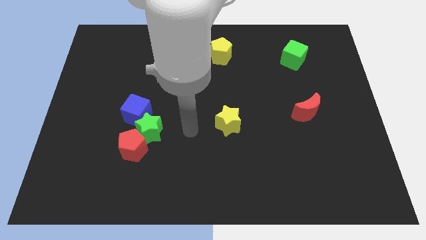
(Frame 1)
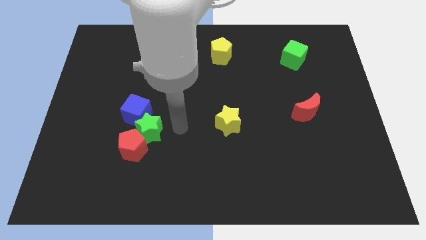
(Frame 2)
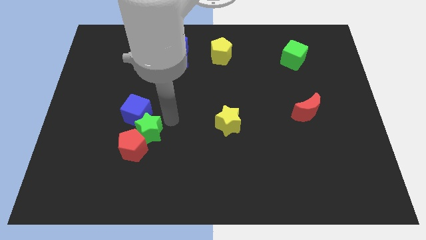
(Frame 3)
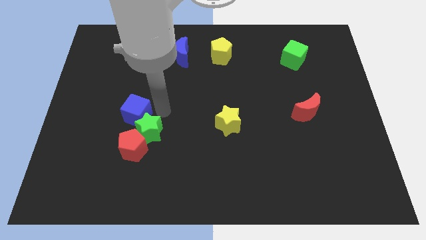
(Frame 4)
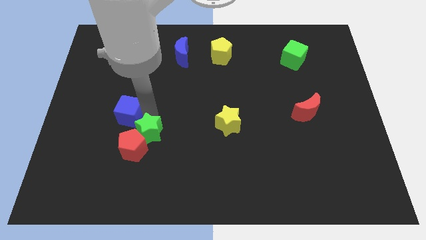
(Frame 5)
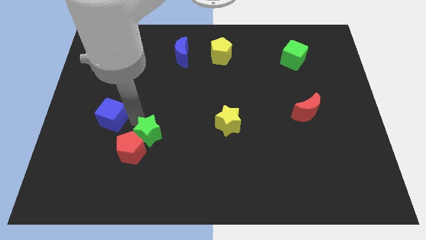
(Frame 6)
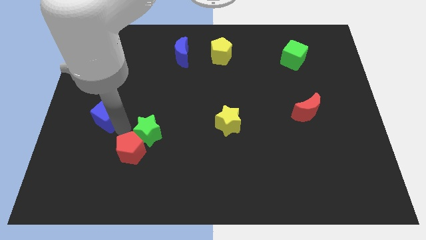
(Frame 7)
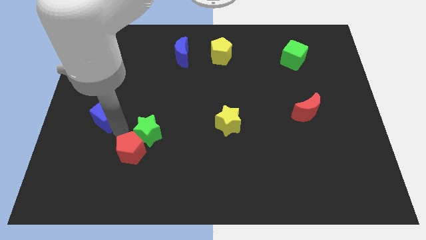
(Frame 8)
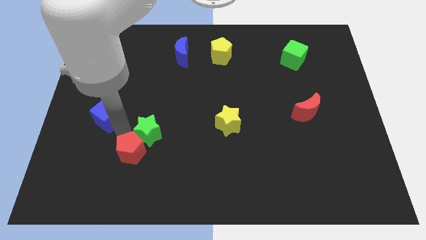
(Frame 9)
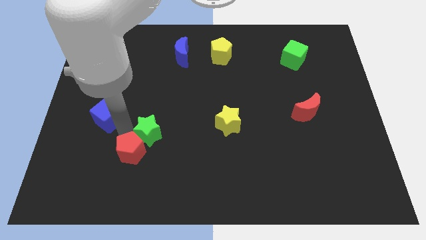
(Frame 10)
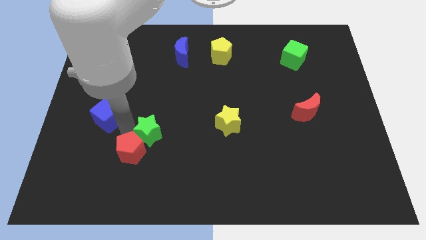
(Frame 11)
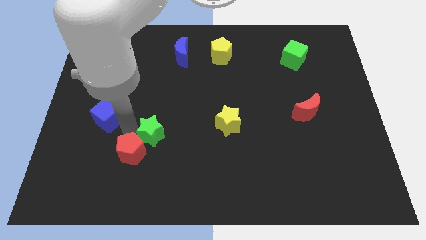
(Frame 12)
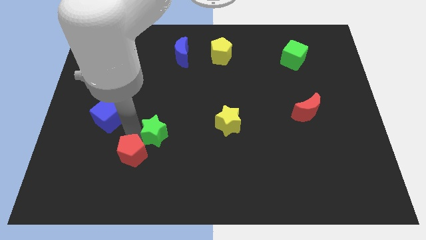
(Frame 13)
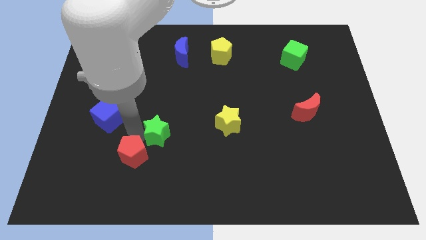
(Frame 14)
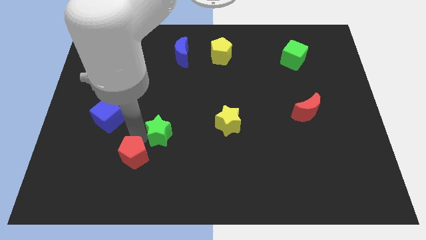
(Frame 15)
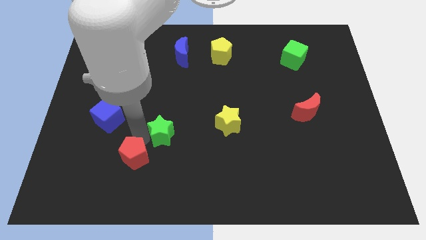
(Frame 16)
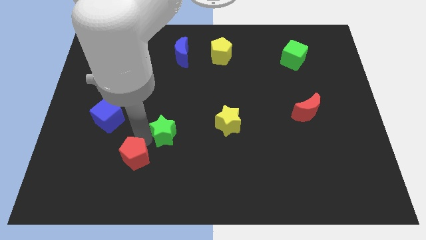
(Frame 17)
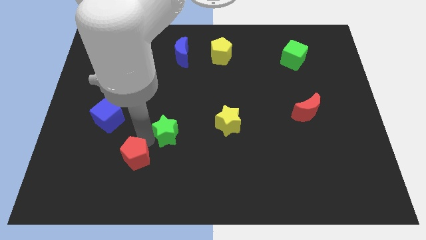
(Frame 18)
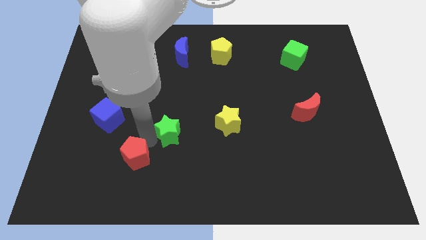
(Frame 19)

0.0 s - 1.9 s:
pull the green star apart from the blue cube and red pentagon

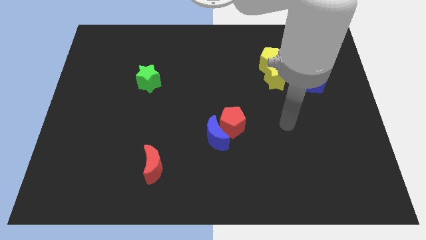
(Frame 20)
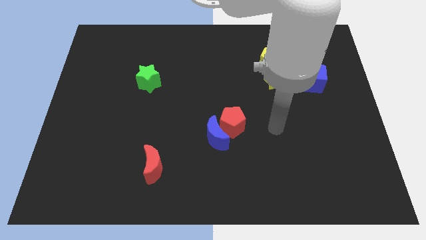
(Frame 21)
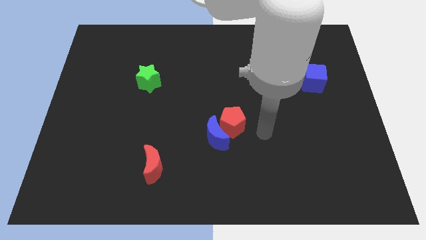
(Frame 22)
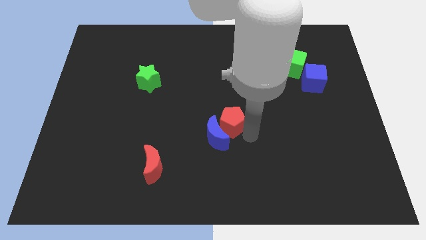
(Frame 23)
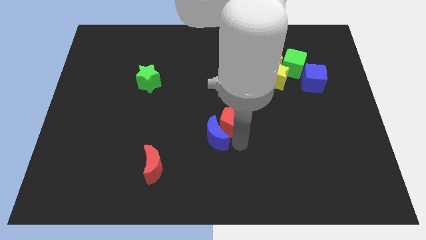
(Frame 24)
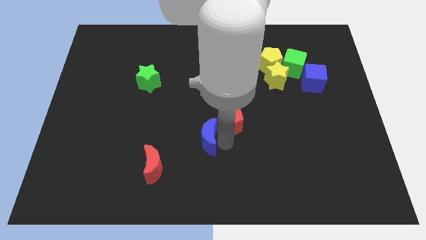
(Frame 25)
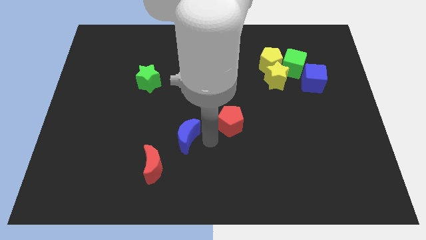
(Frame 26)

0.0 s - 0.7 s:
separate the red pentagon from the blue moon

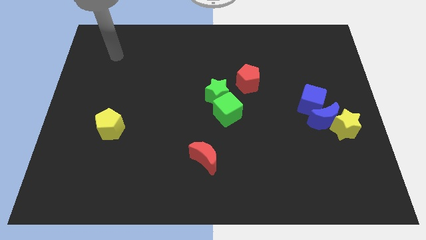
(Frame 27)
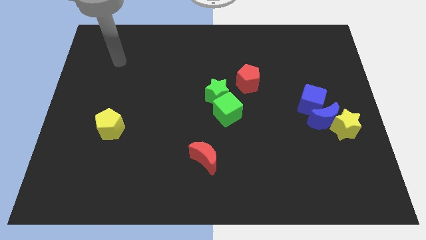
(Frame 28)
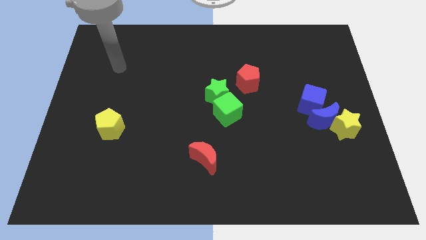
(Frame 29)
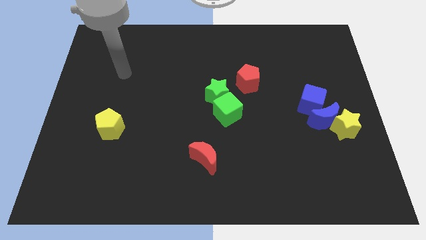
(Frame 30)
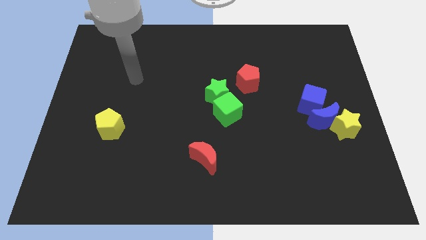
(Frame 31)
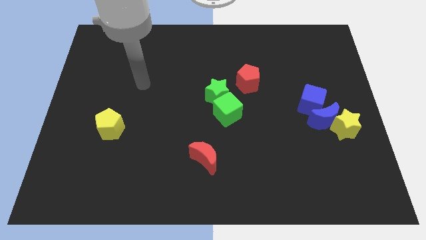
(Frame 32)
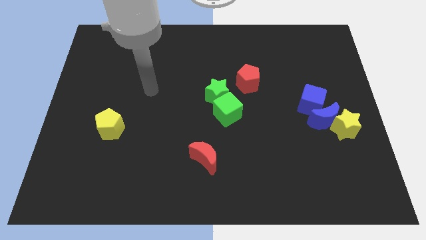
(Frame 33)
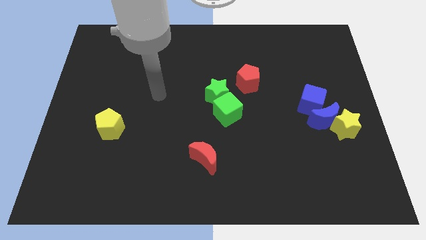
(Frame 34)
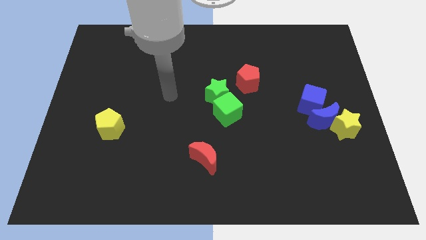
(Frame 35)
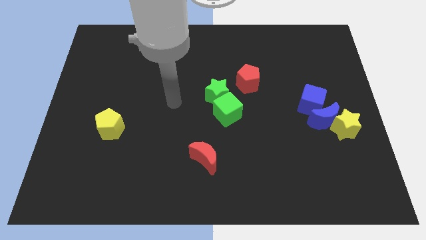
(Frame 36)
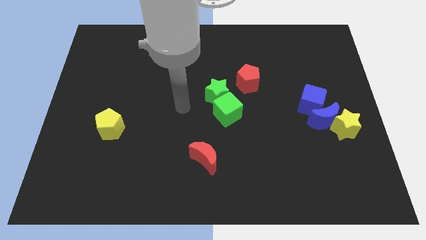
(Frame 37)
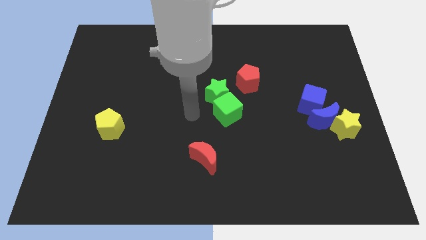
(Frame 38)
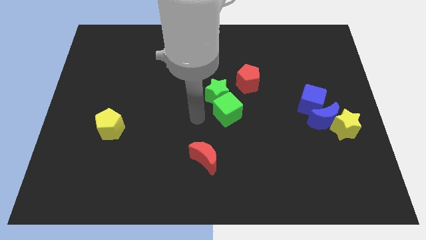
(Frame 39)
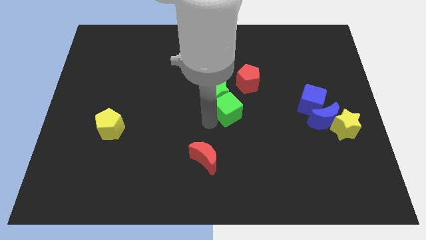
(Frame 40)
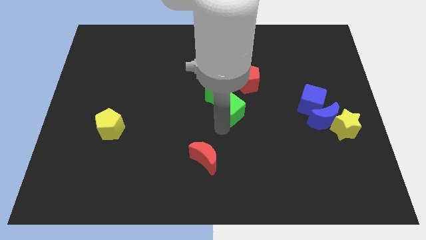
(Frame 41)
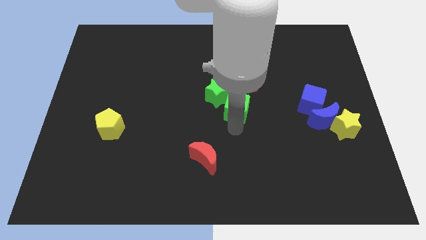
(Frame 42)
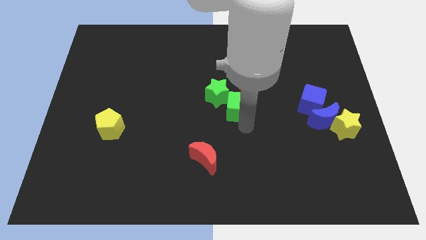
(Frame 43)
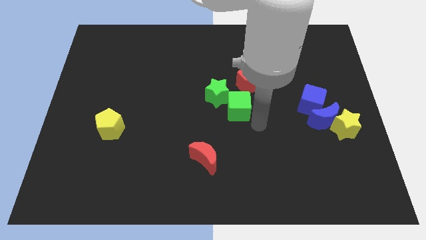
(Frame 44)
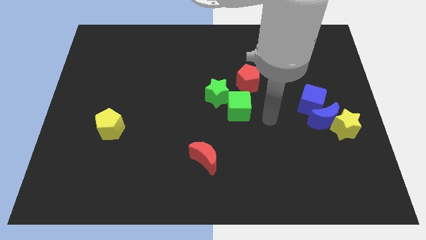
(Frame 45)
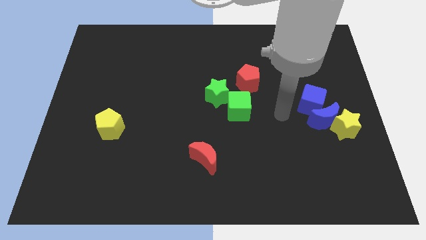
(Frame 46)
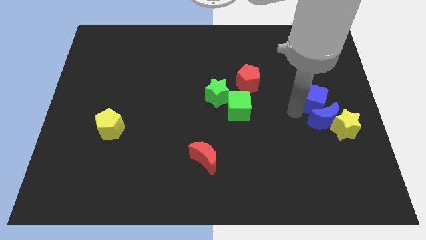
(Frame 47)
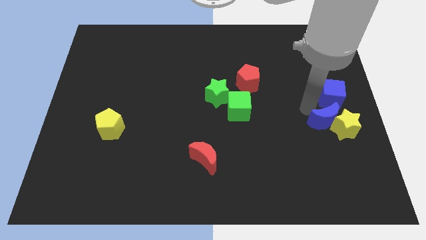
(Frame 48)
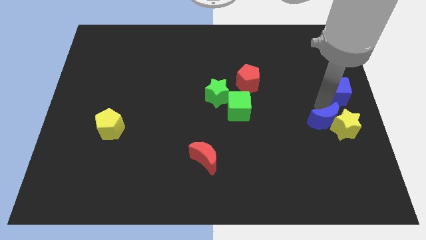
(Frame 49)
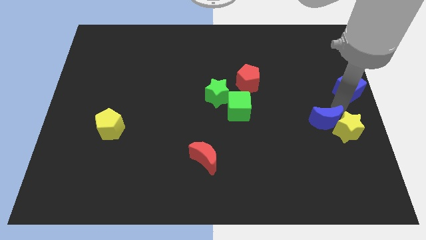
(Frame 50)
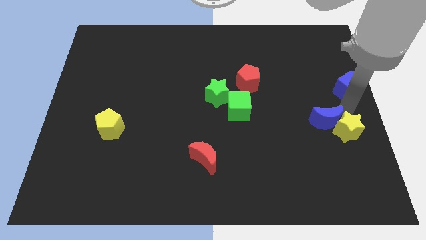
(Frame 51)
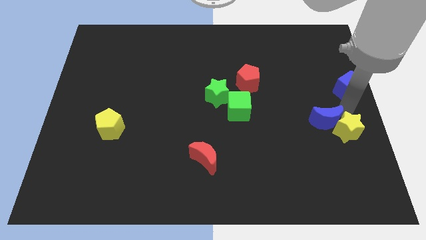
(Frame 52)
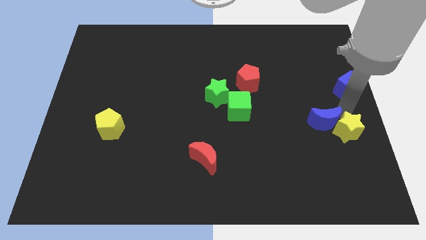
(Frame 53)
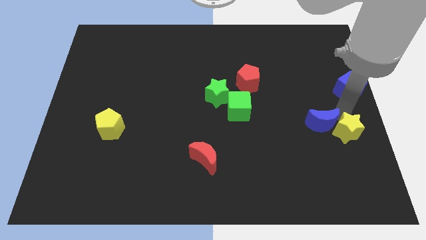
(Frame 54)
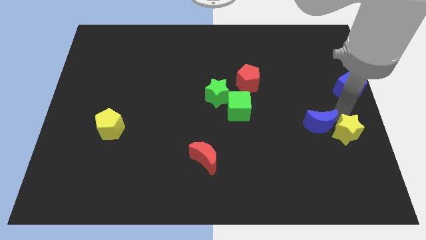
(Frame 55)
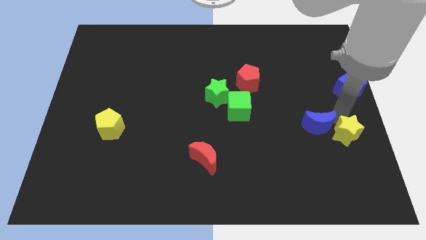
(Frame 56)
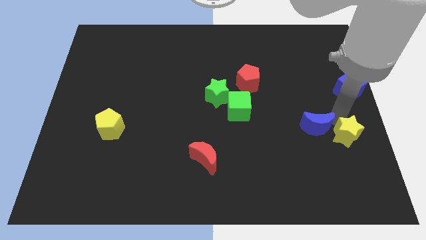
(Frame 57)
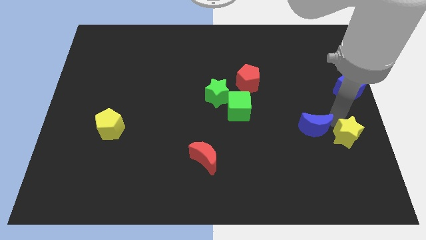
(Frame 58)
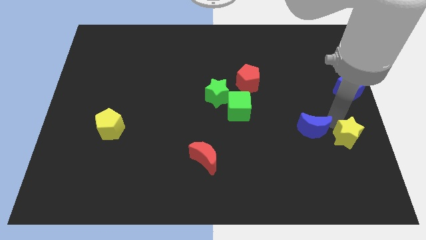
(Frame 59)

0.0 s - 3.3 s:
pull the blue moon apart from the yellow star and blue cube

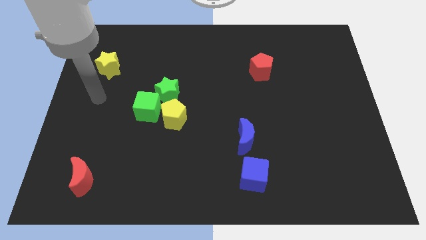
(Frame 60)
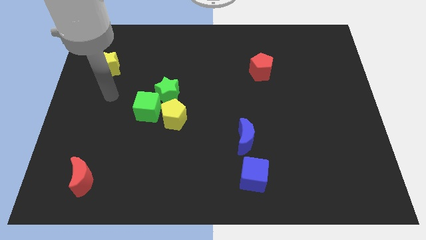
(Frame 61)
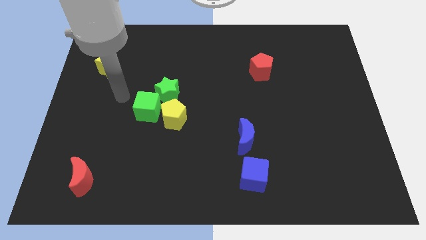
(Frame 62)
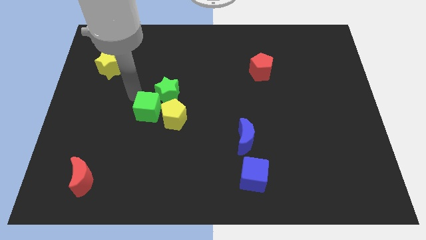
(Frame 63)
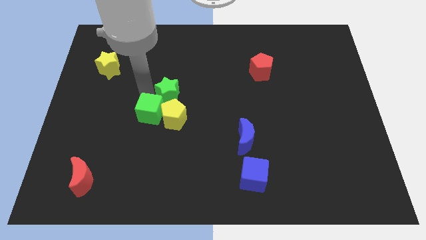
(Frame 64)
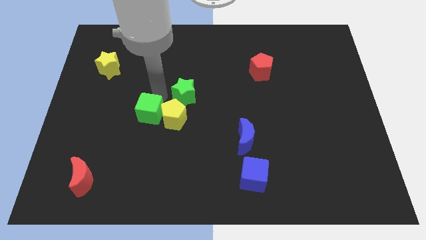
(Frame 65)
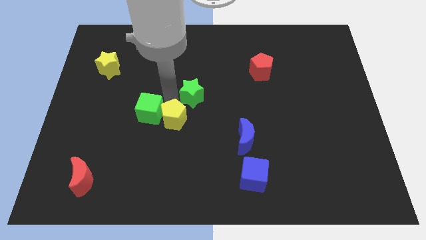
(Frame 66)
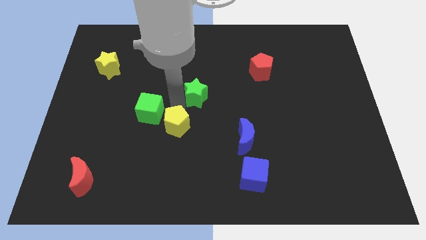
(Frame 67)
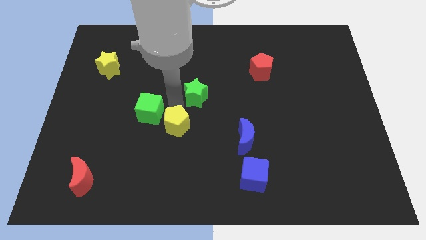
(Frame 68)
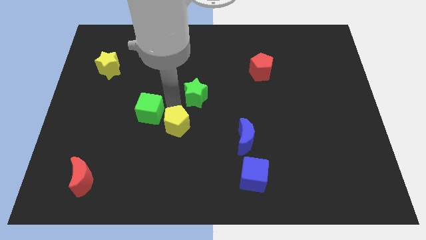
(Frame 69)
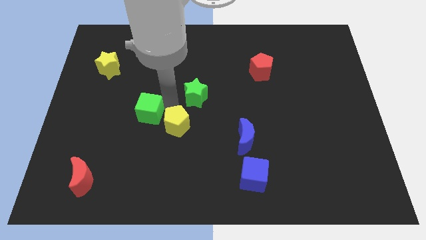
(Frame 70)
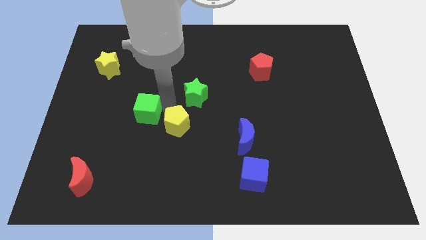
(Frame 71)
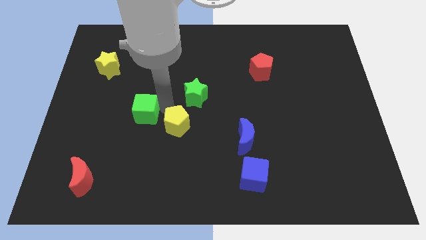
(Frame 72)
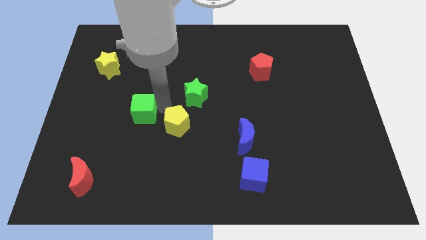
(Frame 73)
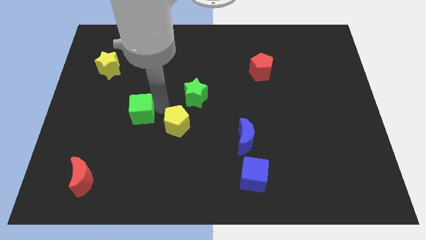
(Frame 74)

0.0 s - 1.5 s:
separate the green cube from the green star and yellow pentagon

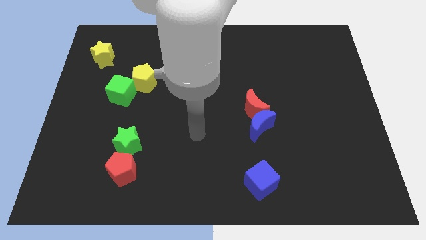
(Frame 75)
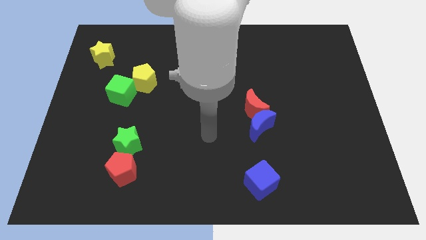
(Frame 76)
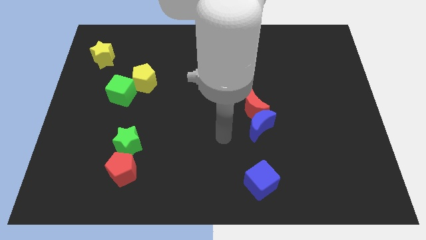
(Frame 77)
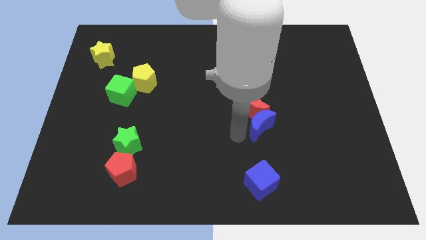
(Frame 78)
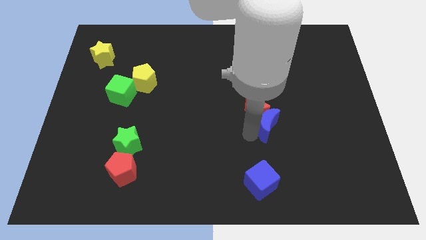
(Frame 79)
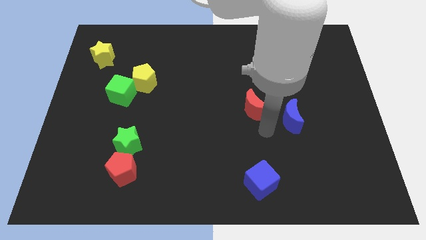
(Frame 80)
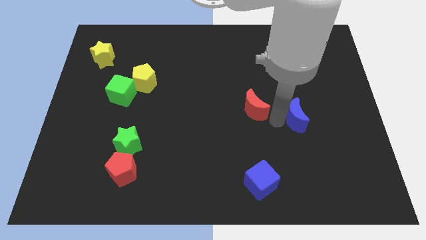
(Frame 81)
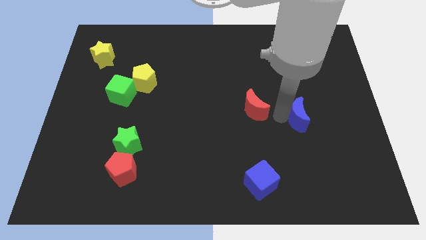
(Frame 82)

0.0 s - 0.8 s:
move the red moon away from the blue moon

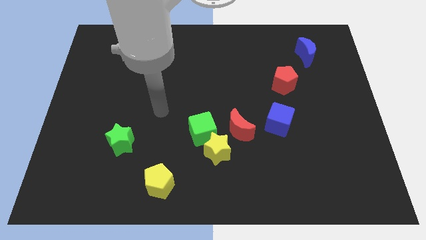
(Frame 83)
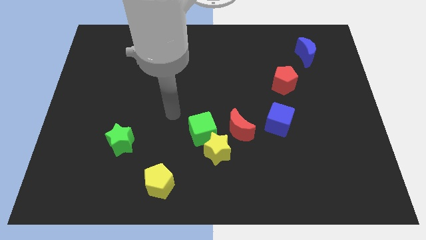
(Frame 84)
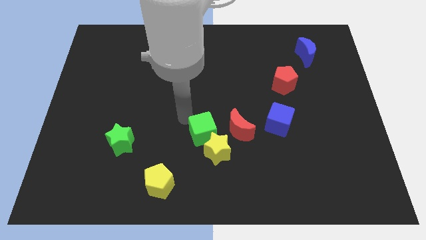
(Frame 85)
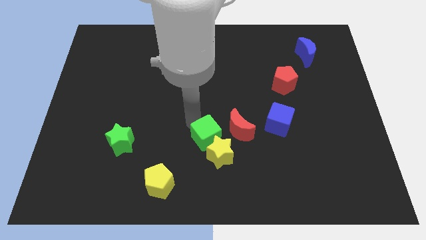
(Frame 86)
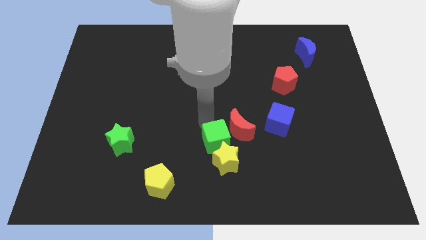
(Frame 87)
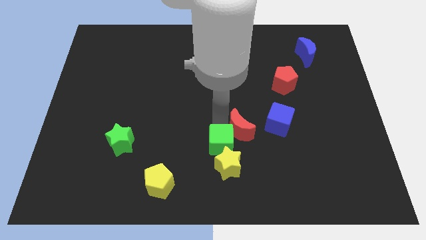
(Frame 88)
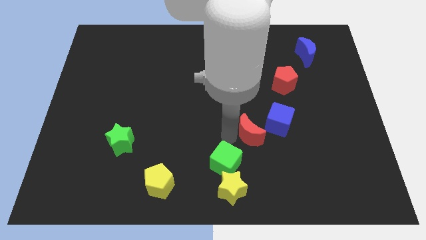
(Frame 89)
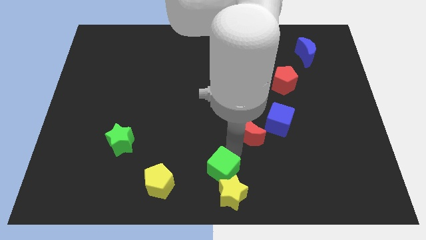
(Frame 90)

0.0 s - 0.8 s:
pull the yellow star apart from the green cube and red moon

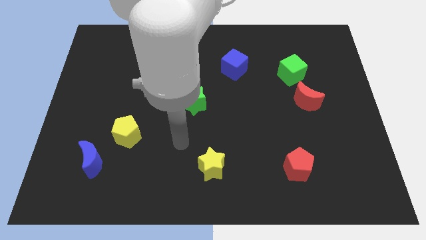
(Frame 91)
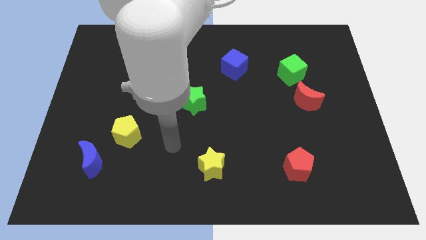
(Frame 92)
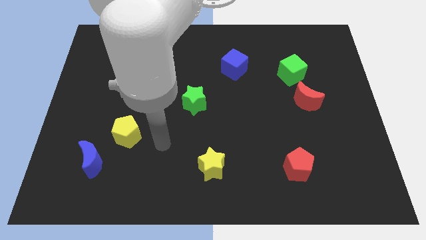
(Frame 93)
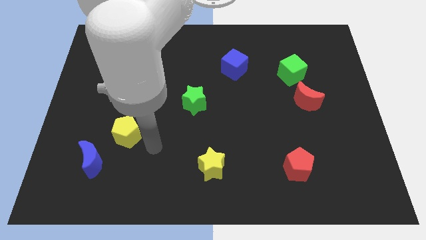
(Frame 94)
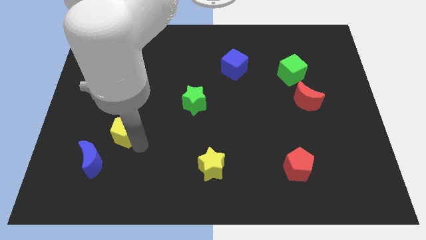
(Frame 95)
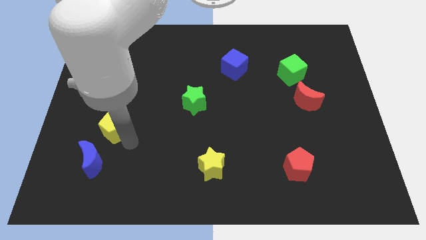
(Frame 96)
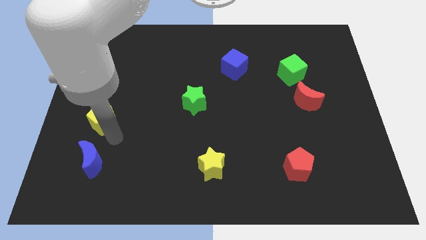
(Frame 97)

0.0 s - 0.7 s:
separate the blue moon from the yellow pentagon
